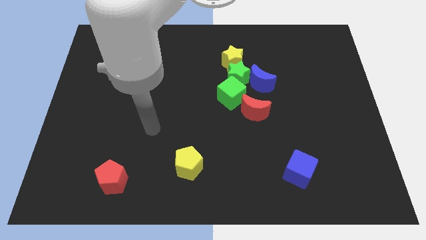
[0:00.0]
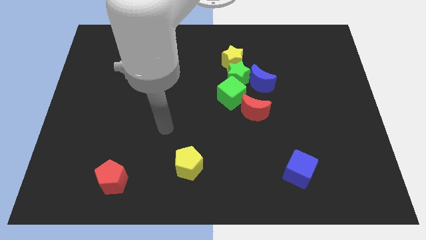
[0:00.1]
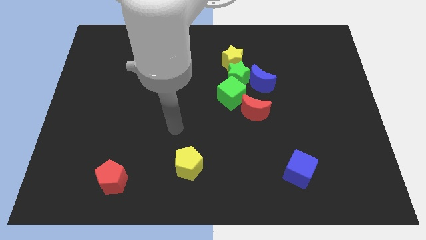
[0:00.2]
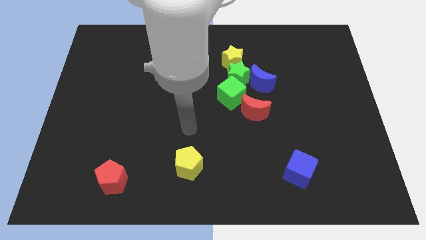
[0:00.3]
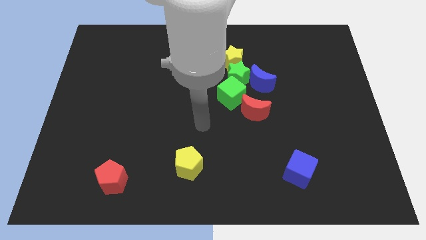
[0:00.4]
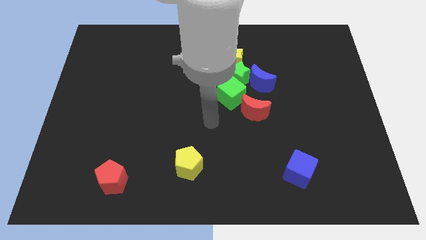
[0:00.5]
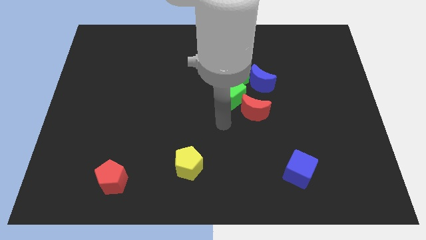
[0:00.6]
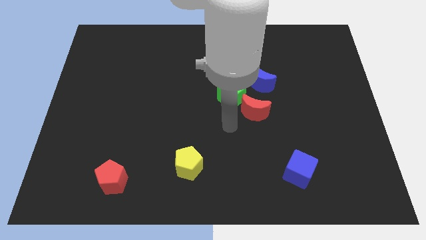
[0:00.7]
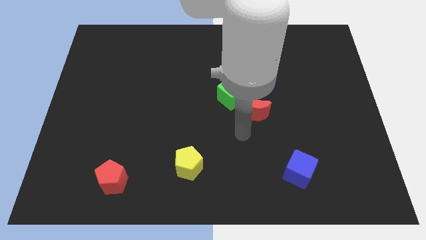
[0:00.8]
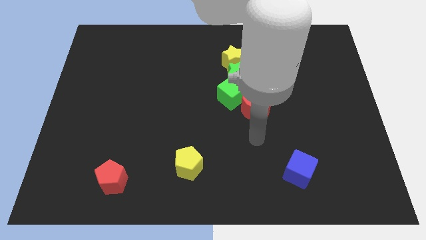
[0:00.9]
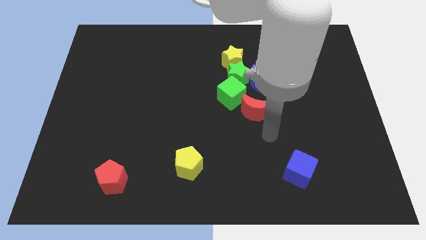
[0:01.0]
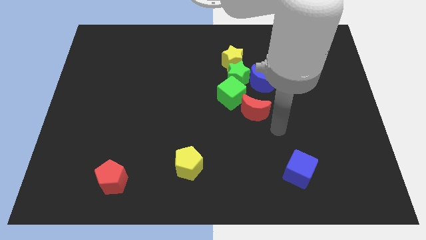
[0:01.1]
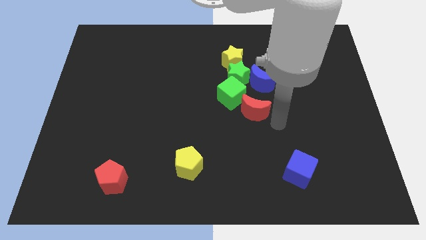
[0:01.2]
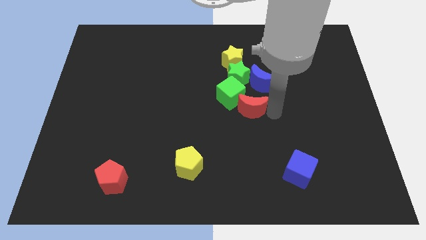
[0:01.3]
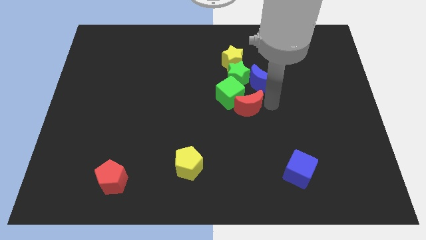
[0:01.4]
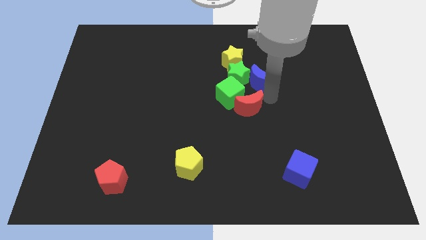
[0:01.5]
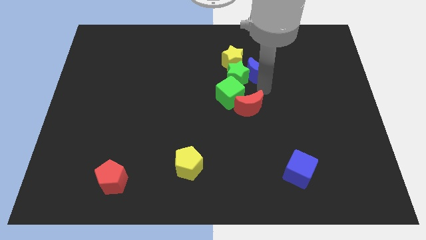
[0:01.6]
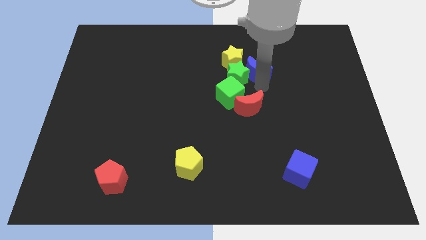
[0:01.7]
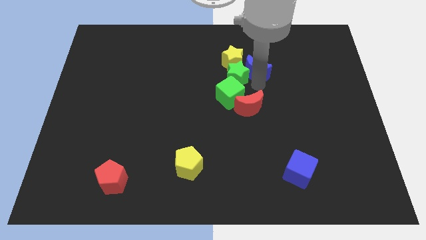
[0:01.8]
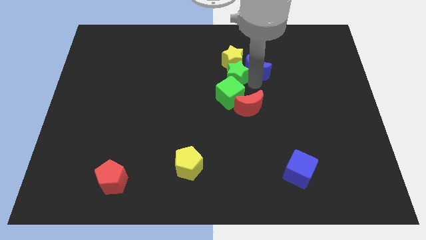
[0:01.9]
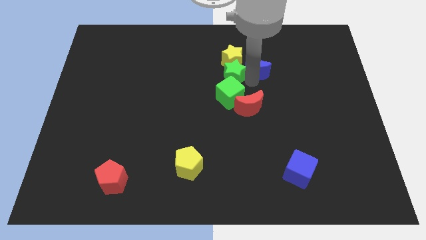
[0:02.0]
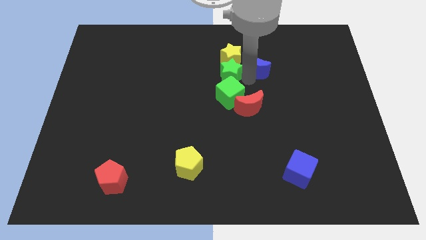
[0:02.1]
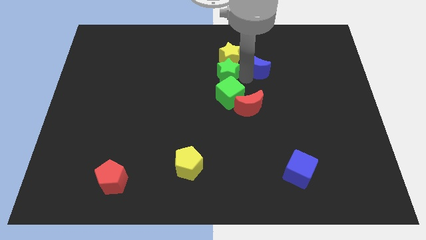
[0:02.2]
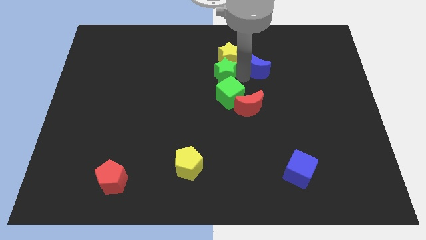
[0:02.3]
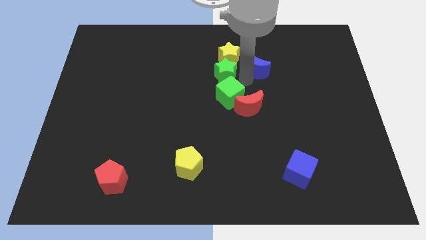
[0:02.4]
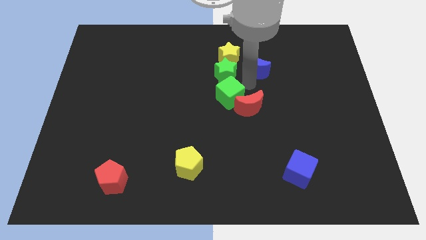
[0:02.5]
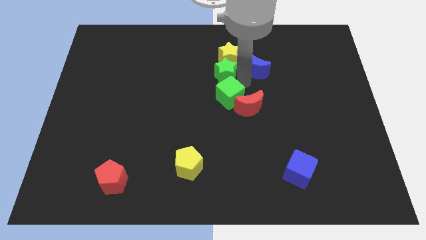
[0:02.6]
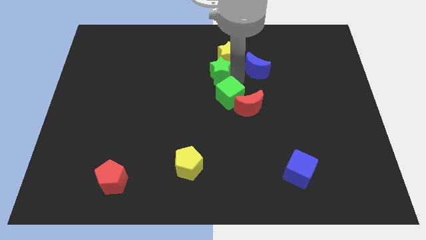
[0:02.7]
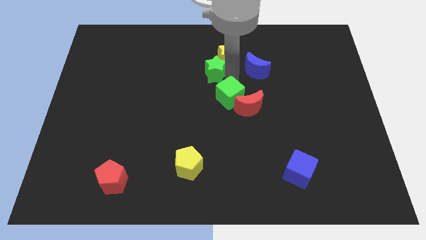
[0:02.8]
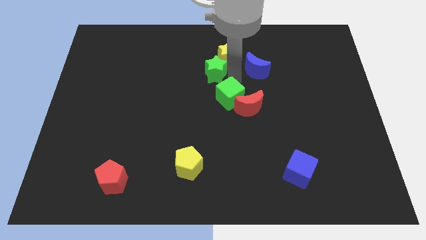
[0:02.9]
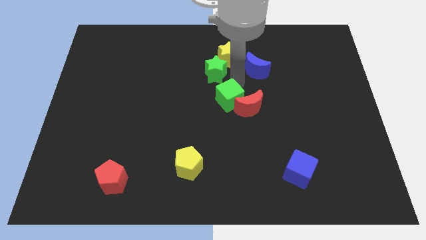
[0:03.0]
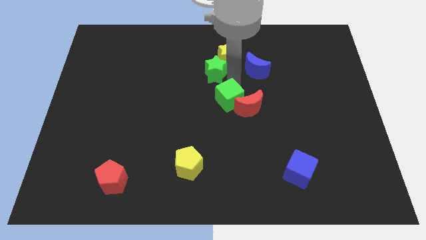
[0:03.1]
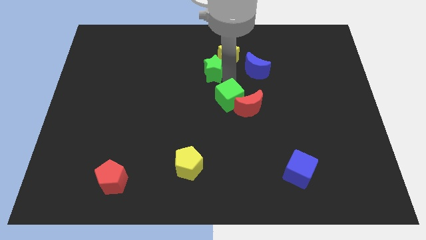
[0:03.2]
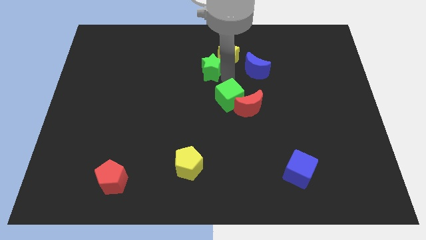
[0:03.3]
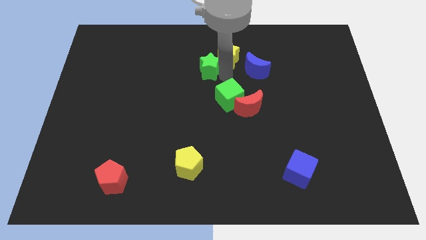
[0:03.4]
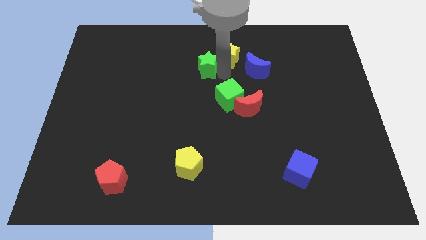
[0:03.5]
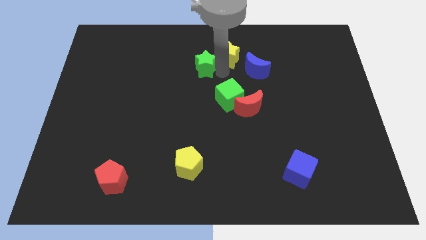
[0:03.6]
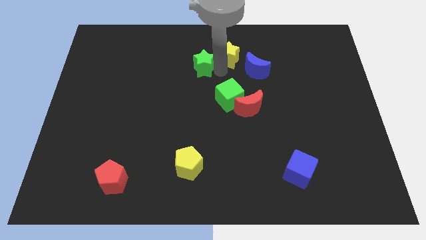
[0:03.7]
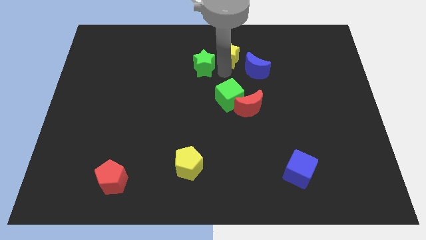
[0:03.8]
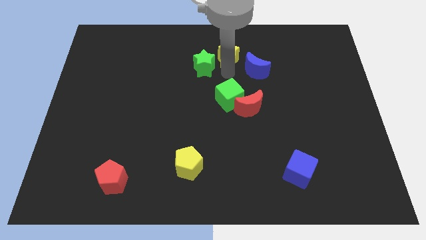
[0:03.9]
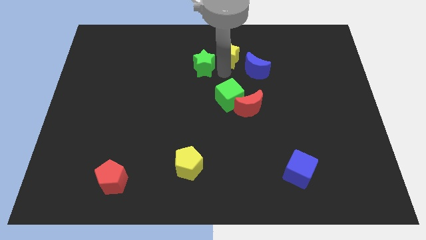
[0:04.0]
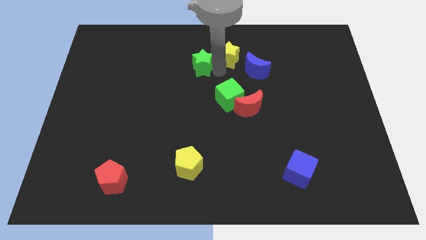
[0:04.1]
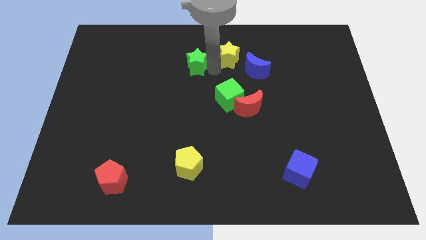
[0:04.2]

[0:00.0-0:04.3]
pull the green star apart from the group of blocks

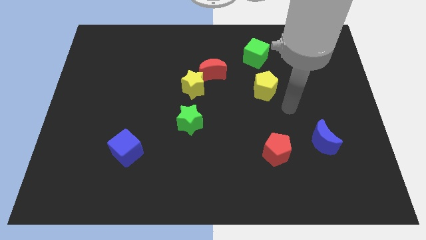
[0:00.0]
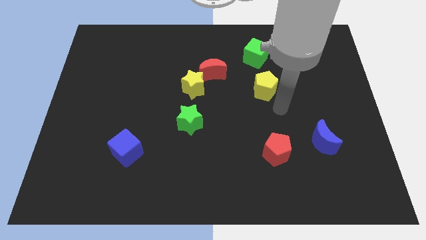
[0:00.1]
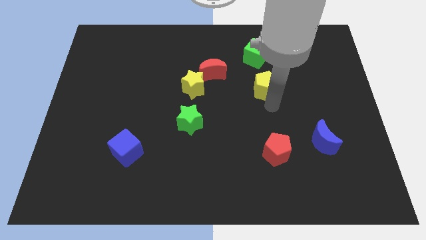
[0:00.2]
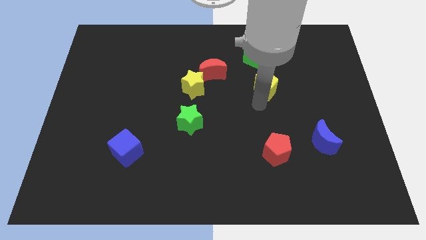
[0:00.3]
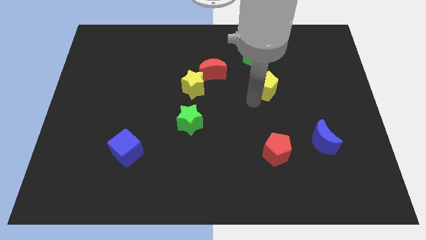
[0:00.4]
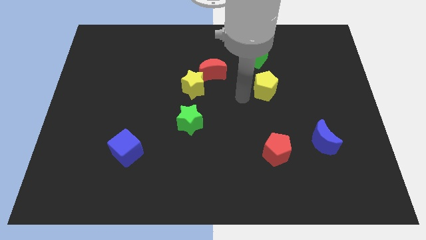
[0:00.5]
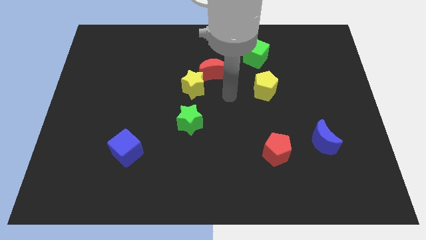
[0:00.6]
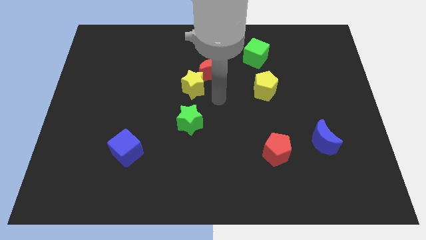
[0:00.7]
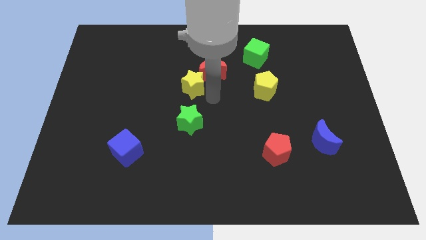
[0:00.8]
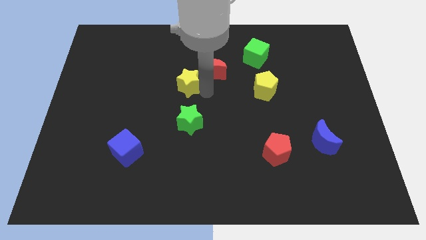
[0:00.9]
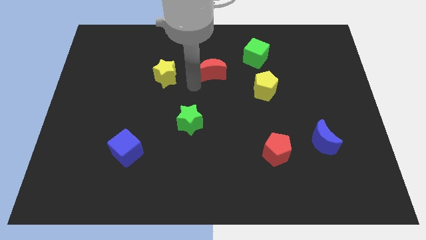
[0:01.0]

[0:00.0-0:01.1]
separate the red moon from the yellow star

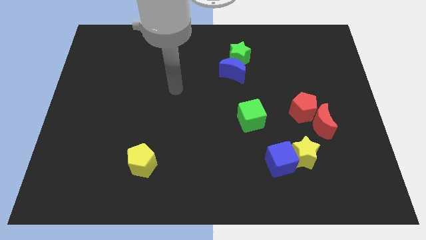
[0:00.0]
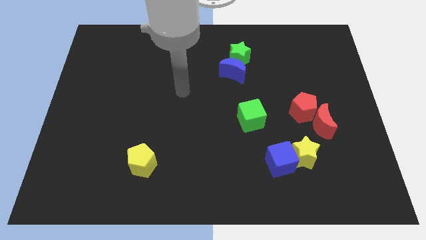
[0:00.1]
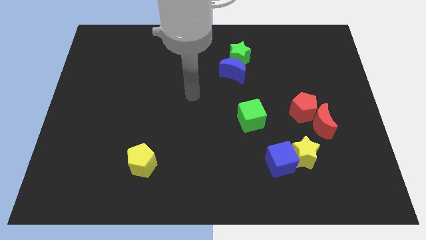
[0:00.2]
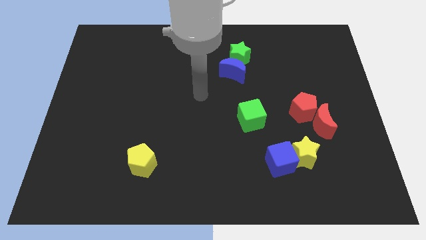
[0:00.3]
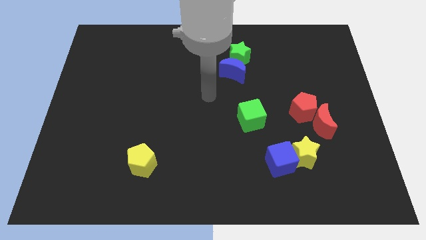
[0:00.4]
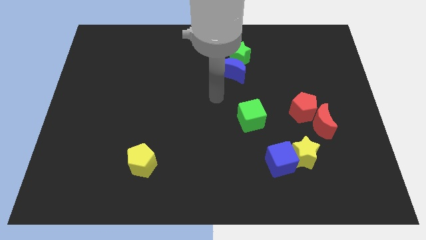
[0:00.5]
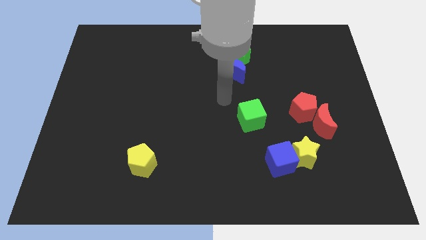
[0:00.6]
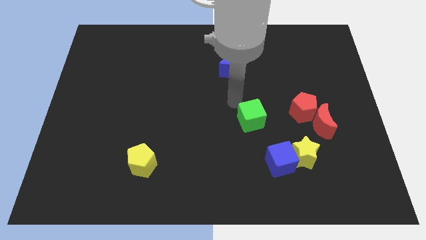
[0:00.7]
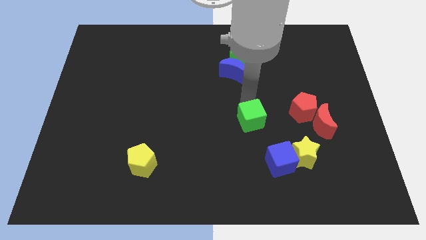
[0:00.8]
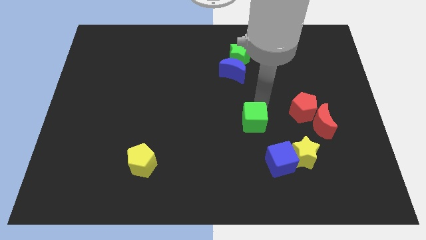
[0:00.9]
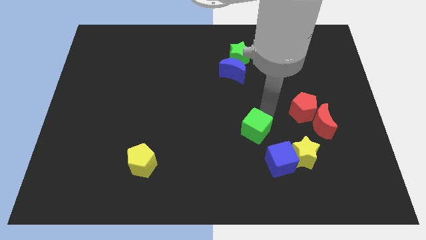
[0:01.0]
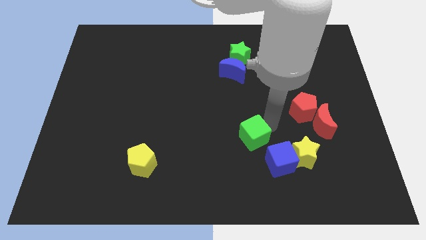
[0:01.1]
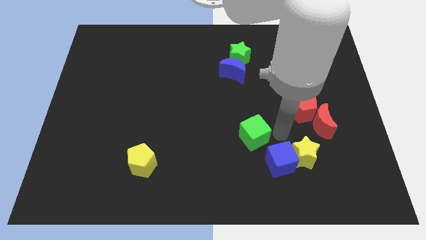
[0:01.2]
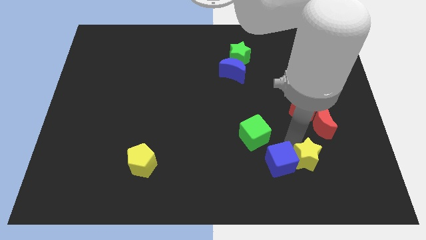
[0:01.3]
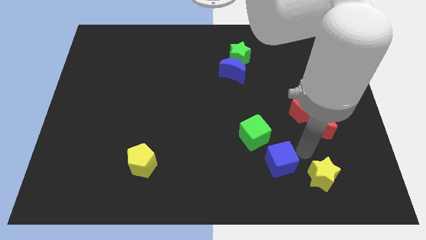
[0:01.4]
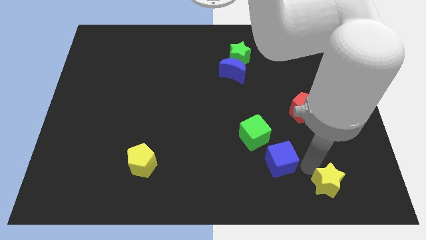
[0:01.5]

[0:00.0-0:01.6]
pull the blue cube apart from the yellow star

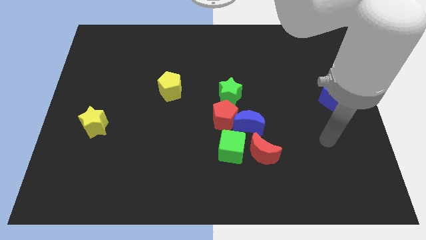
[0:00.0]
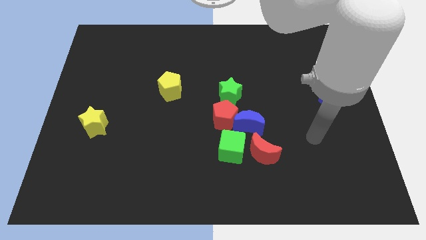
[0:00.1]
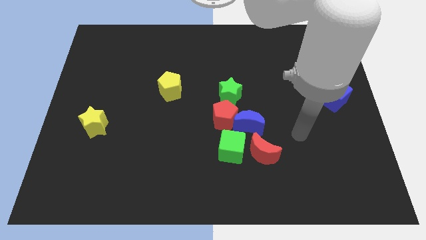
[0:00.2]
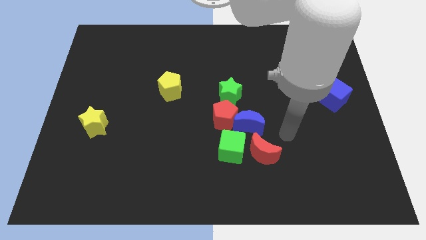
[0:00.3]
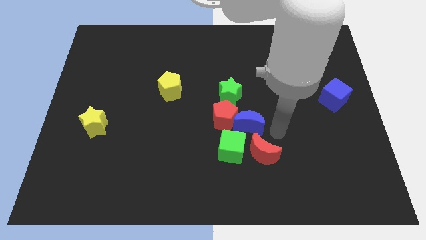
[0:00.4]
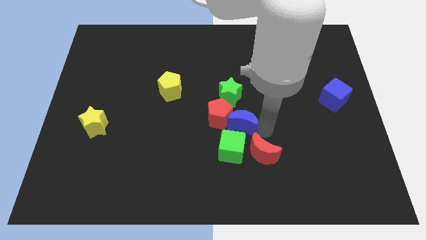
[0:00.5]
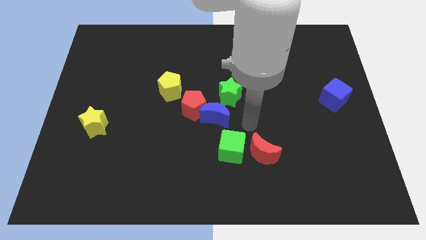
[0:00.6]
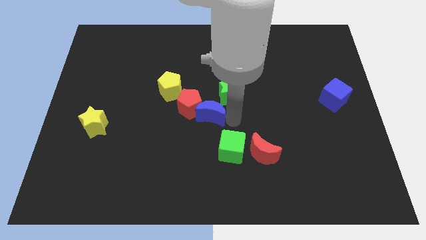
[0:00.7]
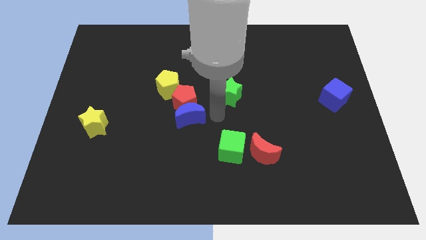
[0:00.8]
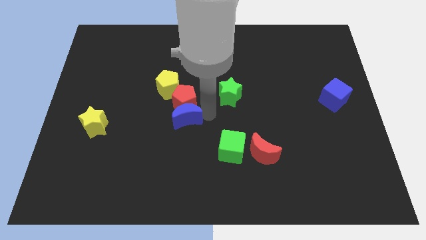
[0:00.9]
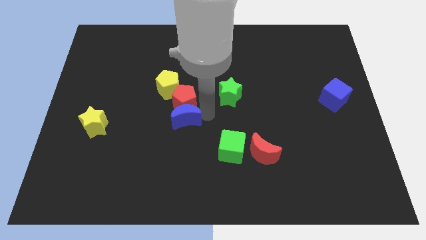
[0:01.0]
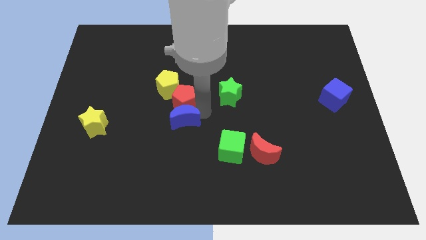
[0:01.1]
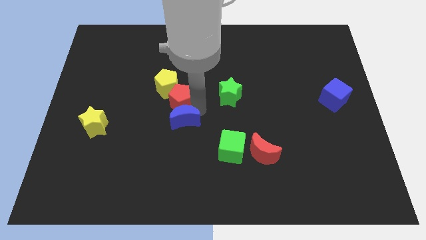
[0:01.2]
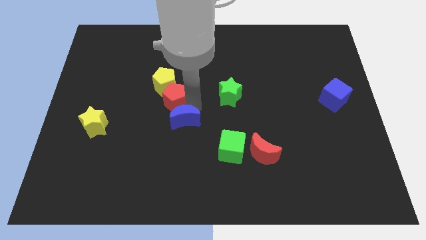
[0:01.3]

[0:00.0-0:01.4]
separate the red pentagon from the blue moon, green star, and green cube

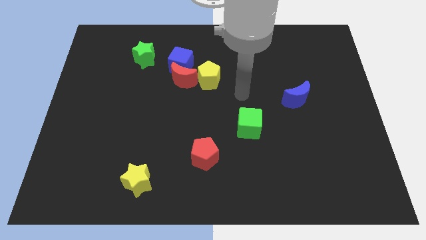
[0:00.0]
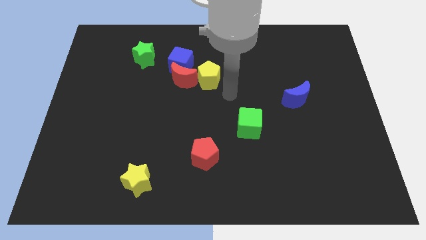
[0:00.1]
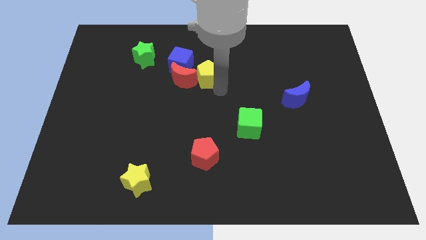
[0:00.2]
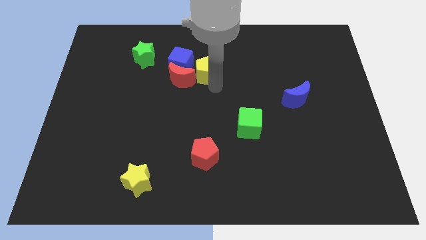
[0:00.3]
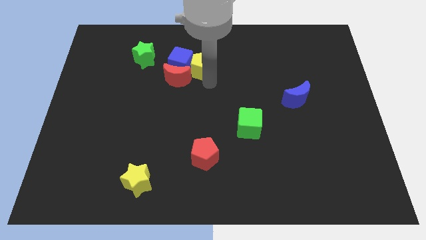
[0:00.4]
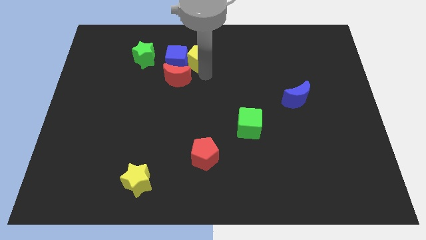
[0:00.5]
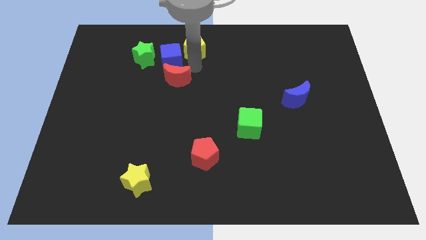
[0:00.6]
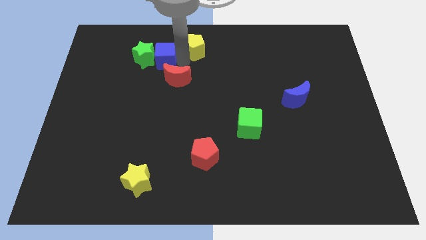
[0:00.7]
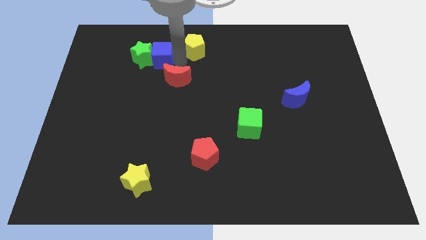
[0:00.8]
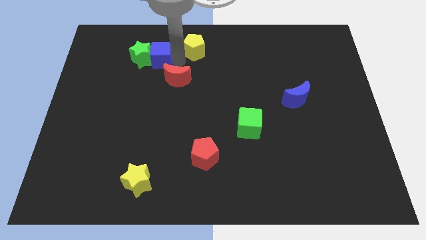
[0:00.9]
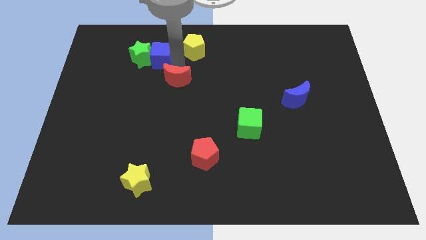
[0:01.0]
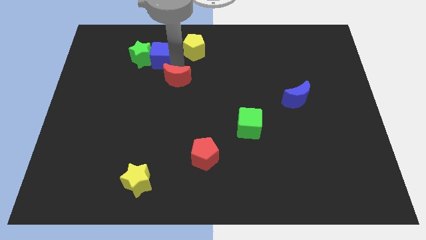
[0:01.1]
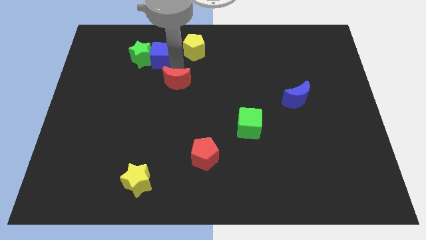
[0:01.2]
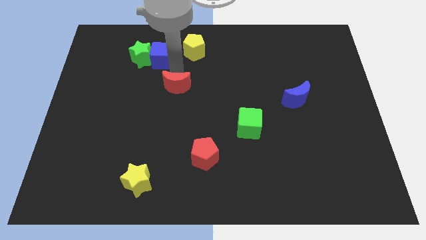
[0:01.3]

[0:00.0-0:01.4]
separate the red moon from the blue cube and yellow pentagon
